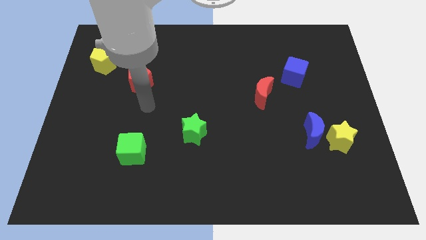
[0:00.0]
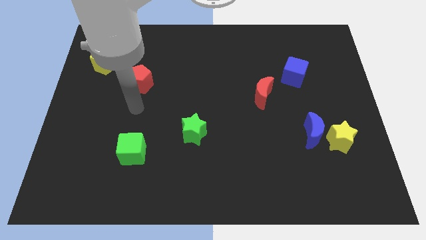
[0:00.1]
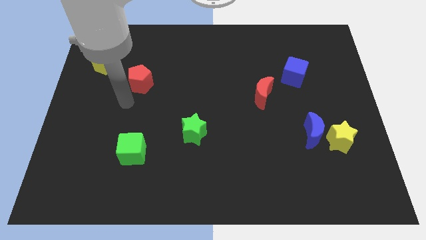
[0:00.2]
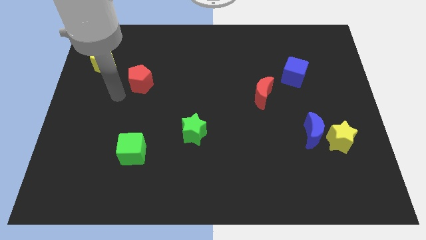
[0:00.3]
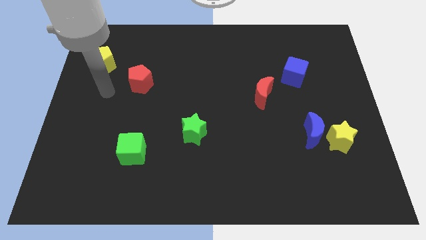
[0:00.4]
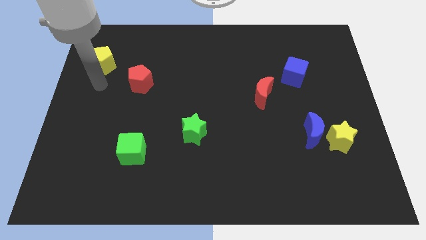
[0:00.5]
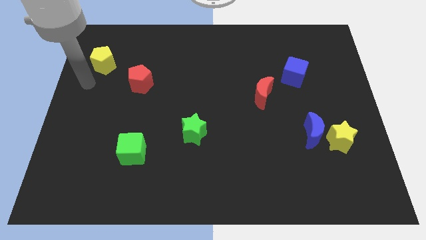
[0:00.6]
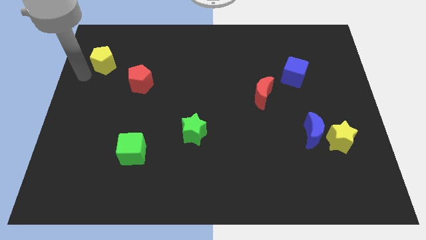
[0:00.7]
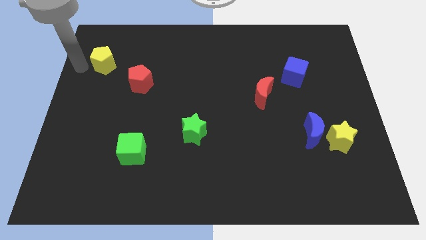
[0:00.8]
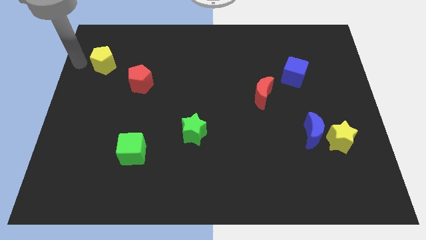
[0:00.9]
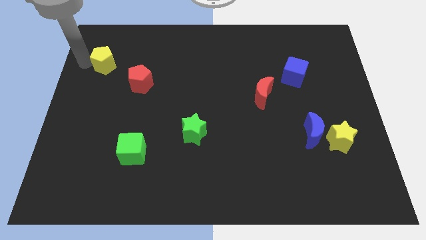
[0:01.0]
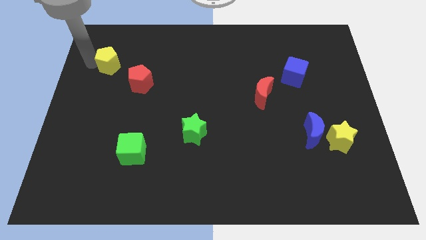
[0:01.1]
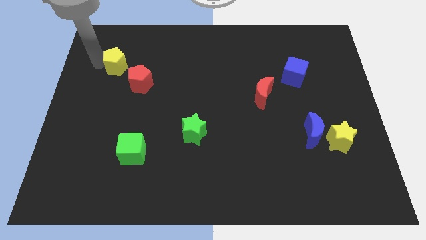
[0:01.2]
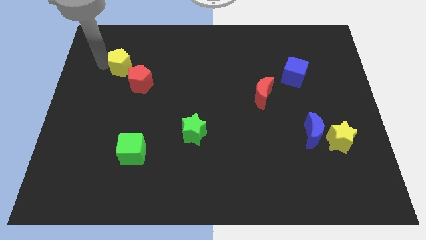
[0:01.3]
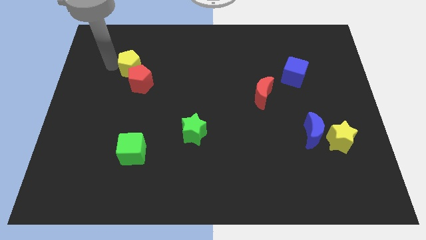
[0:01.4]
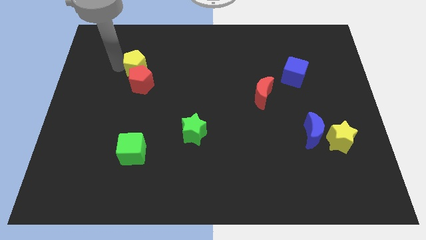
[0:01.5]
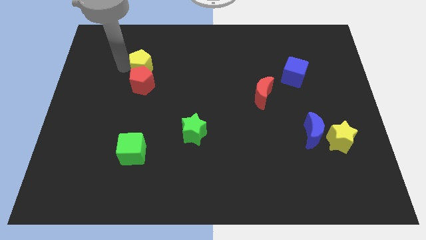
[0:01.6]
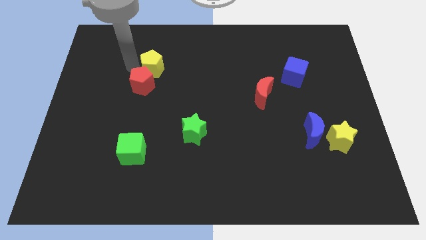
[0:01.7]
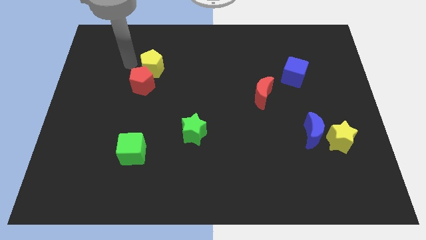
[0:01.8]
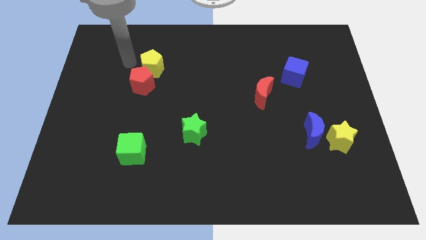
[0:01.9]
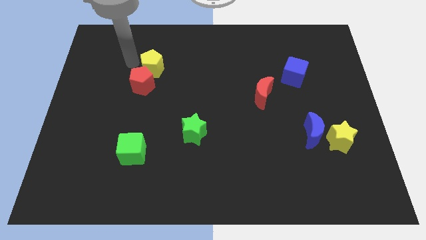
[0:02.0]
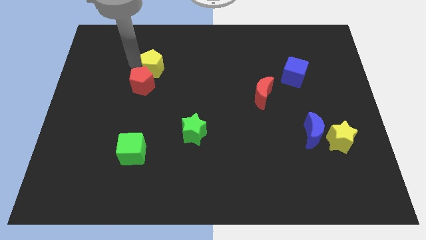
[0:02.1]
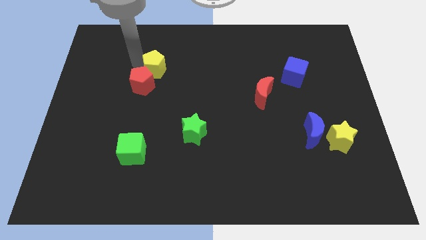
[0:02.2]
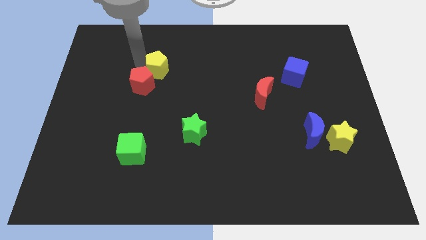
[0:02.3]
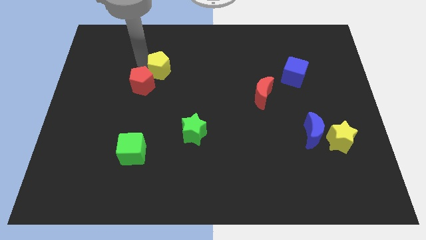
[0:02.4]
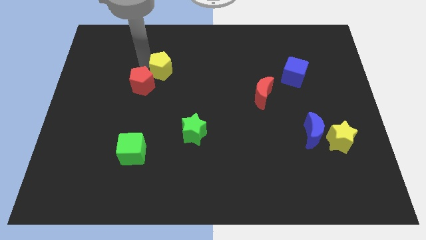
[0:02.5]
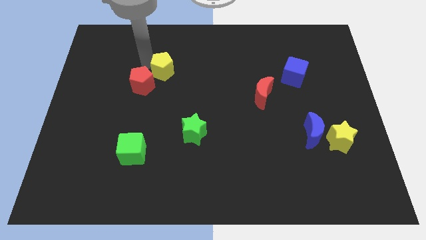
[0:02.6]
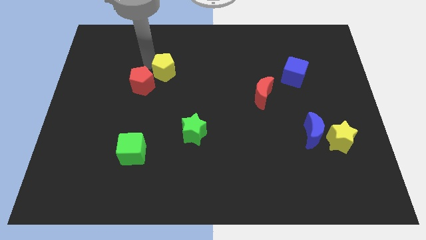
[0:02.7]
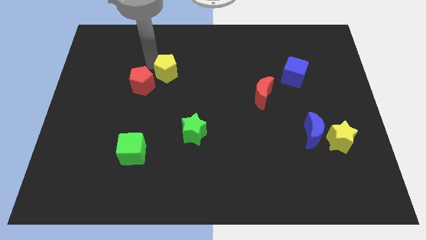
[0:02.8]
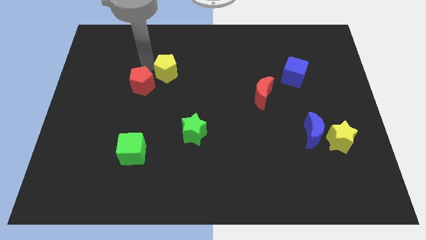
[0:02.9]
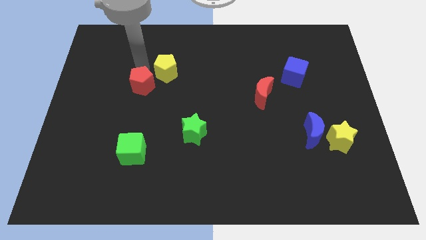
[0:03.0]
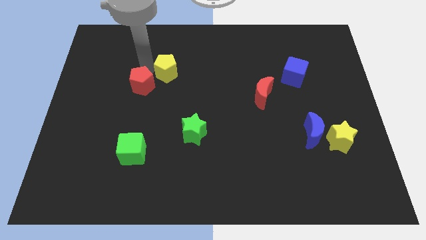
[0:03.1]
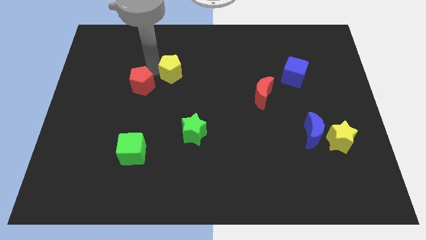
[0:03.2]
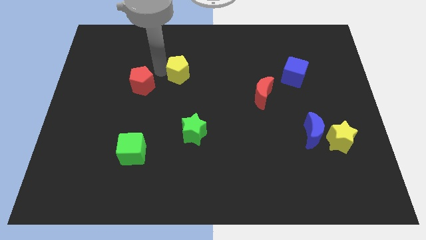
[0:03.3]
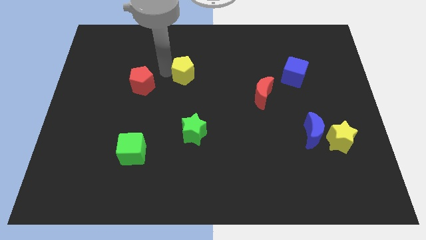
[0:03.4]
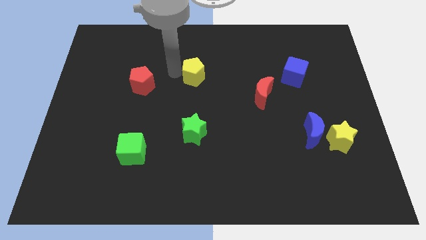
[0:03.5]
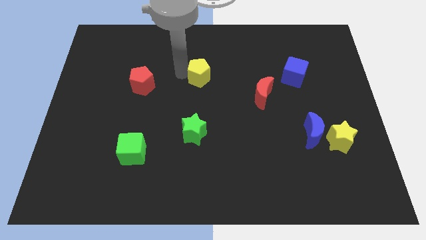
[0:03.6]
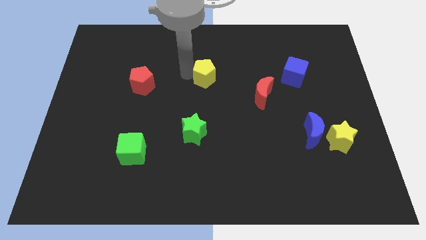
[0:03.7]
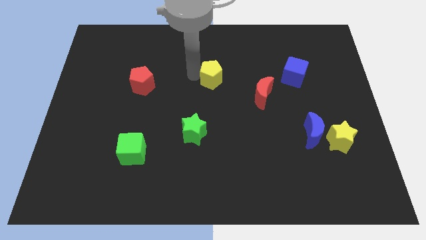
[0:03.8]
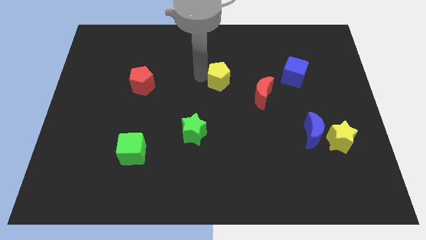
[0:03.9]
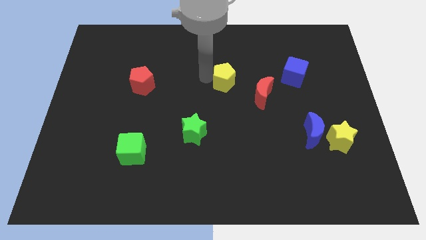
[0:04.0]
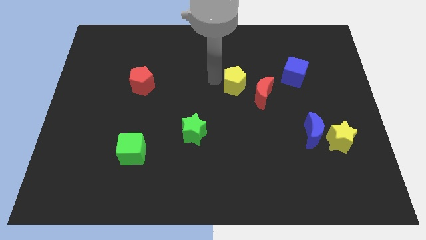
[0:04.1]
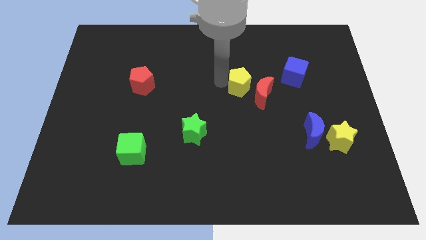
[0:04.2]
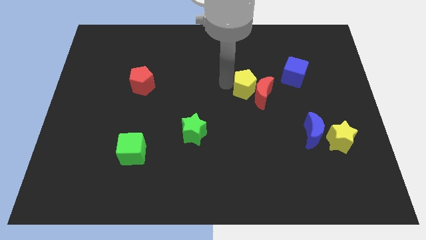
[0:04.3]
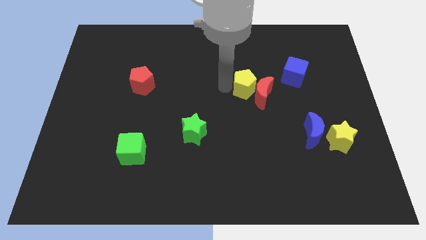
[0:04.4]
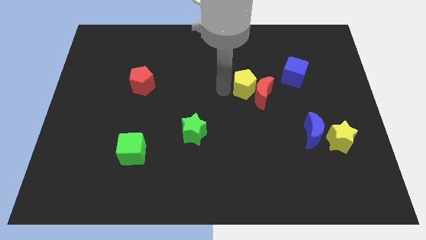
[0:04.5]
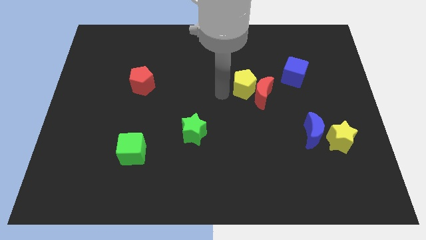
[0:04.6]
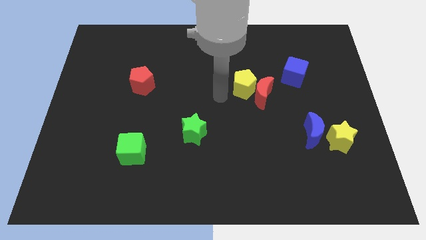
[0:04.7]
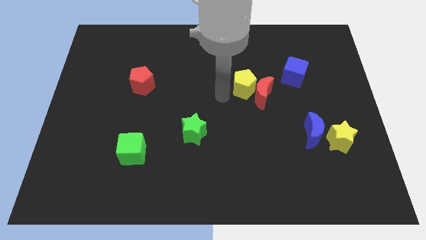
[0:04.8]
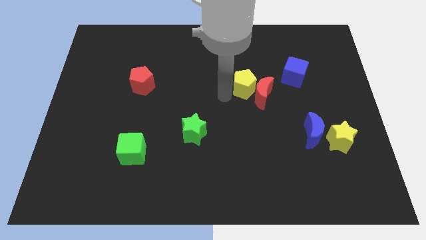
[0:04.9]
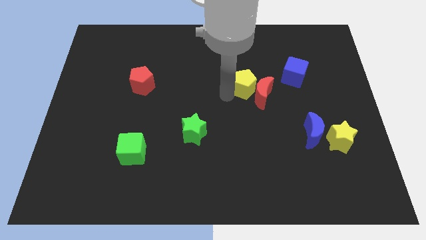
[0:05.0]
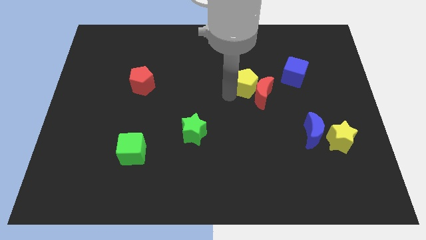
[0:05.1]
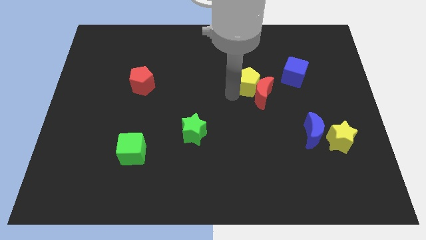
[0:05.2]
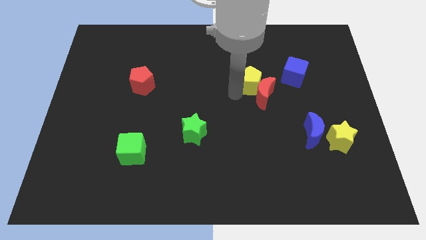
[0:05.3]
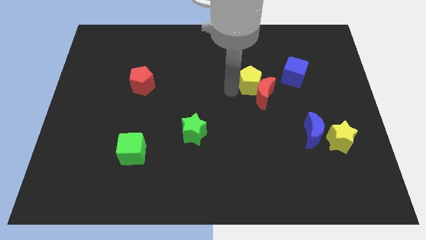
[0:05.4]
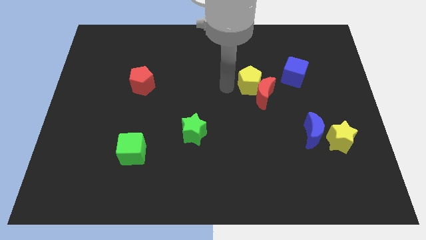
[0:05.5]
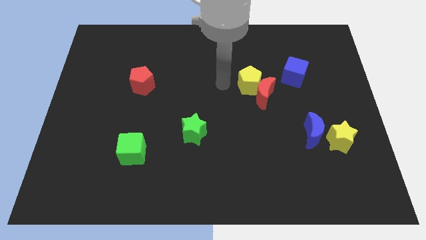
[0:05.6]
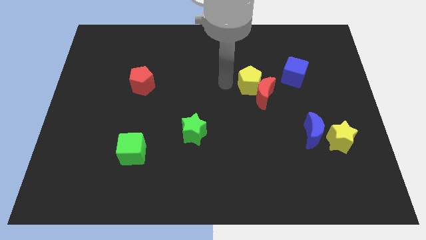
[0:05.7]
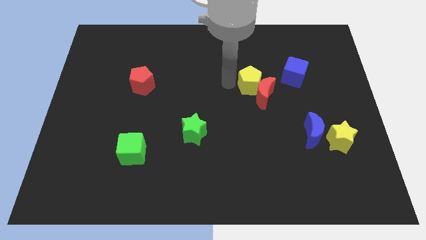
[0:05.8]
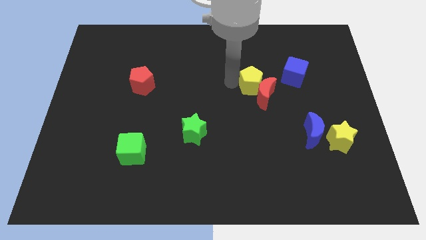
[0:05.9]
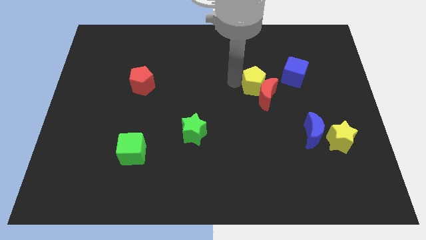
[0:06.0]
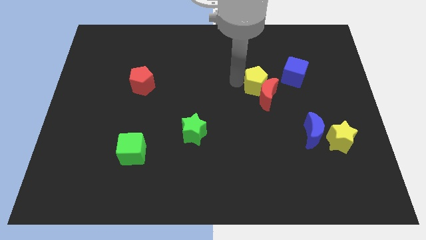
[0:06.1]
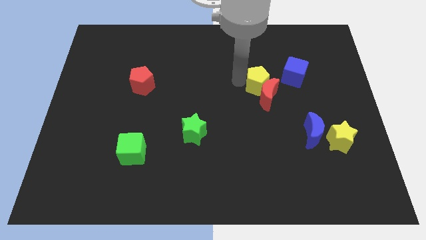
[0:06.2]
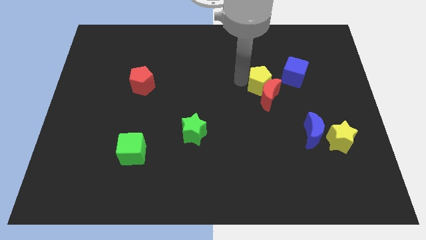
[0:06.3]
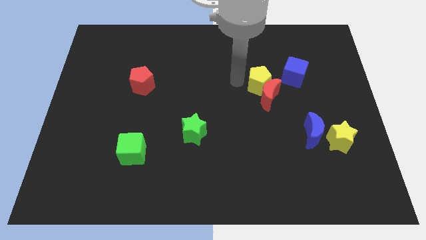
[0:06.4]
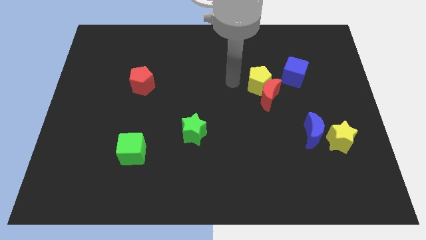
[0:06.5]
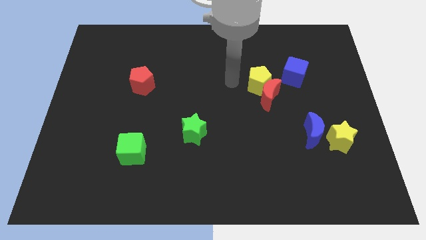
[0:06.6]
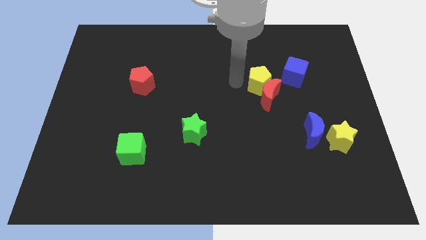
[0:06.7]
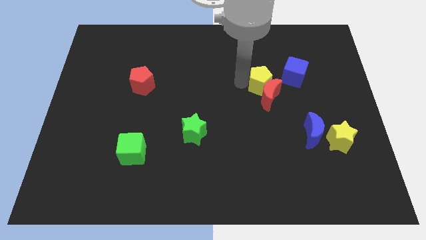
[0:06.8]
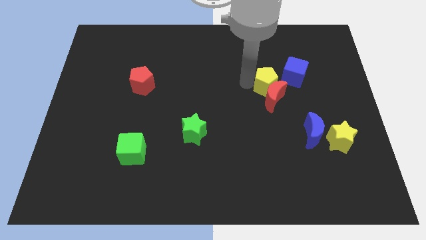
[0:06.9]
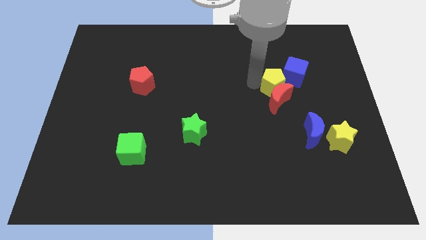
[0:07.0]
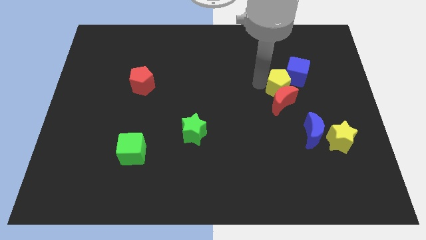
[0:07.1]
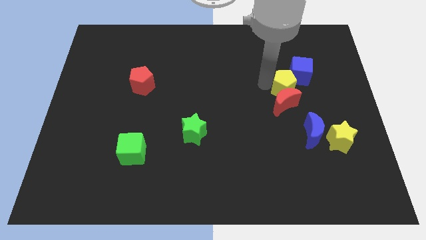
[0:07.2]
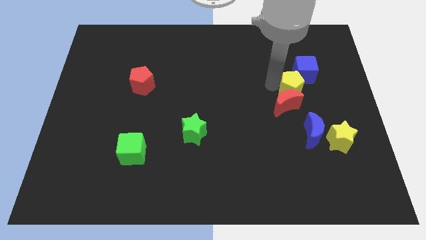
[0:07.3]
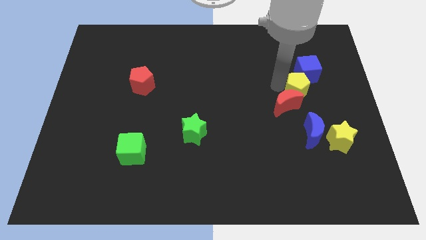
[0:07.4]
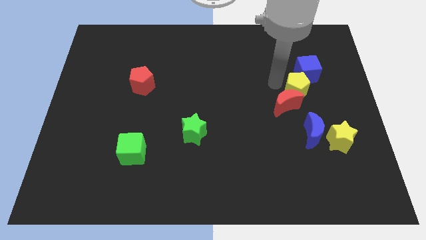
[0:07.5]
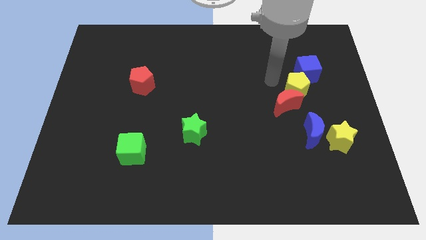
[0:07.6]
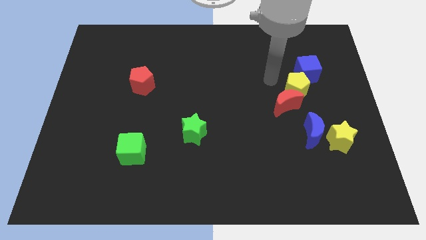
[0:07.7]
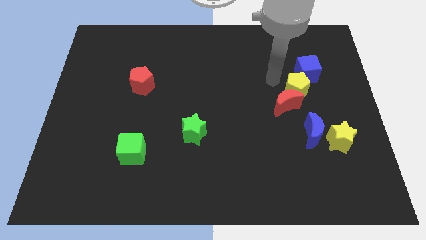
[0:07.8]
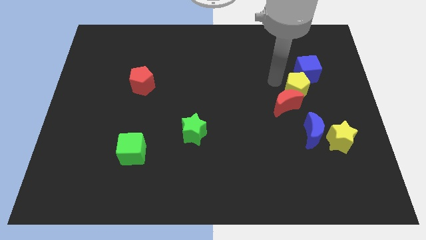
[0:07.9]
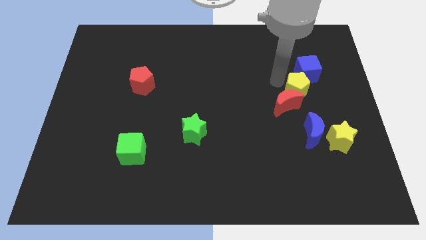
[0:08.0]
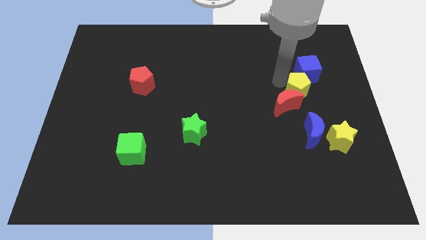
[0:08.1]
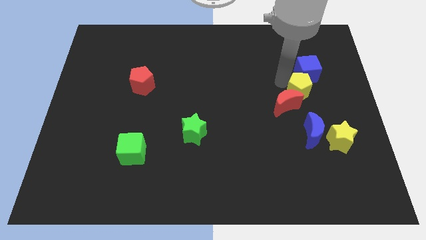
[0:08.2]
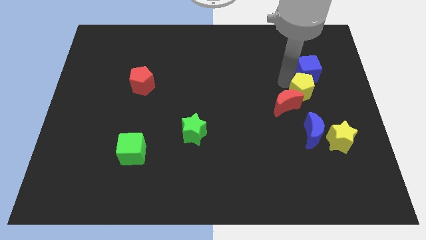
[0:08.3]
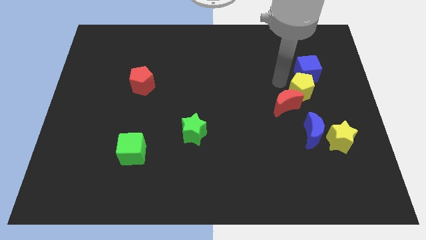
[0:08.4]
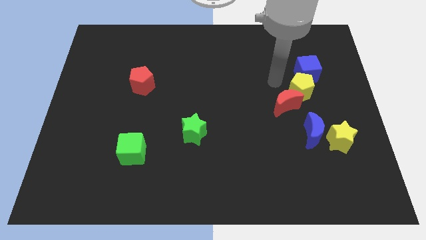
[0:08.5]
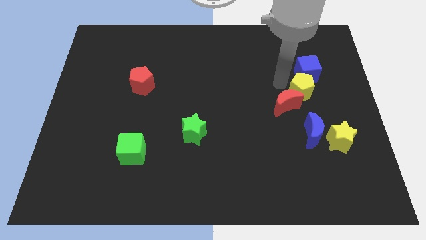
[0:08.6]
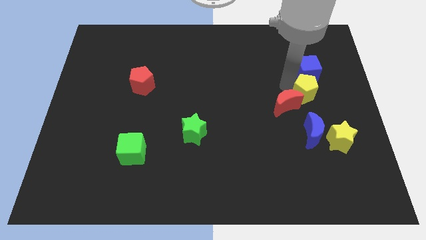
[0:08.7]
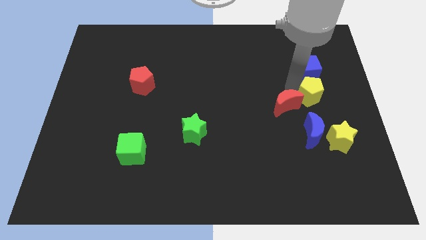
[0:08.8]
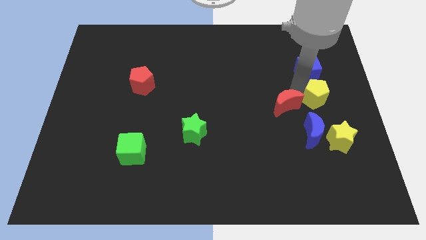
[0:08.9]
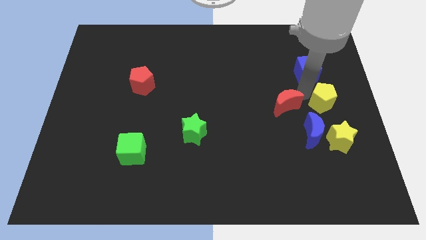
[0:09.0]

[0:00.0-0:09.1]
put the yellow pentagon to the right side of the board
